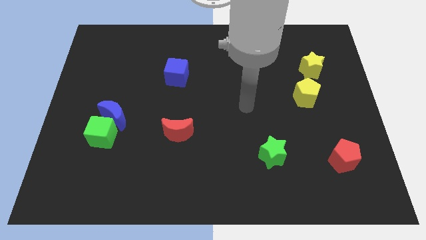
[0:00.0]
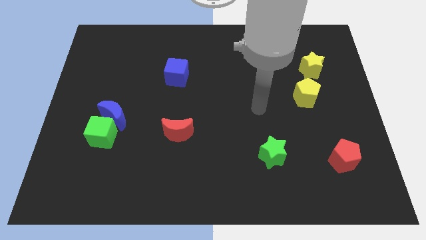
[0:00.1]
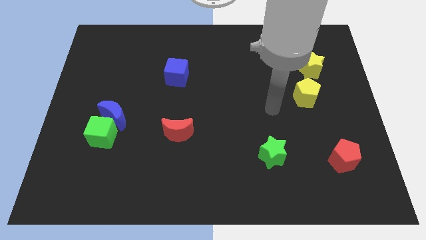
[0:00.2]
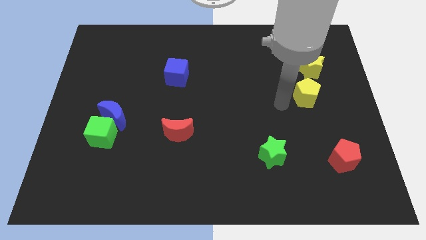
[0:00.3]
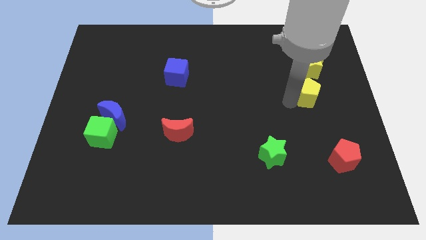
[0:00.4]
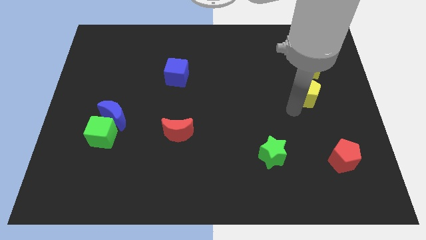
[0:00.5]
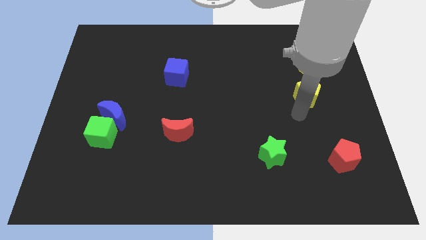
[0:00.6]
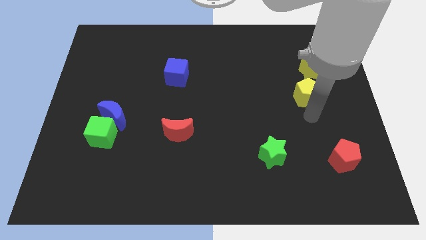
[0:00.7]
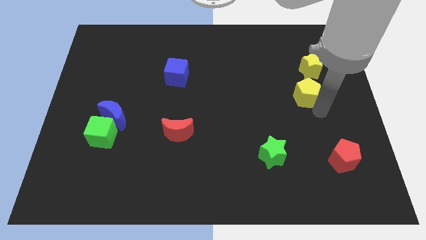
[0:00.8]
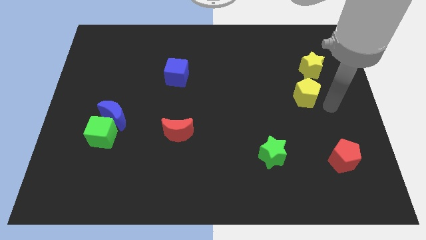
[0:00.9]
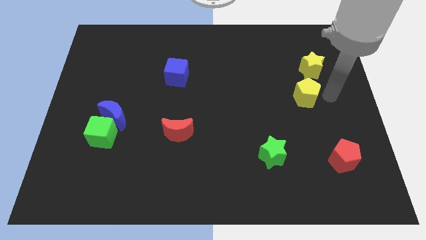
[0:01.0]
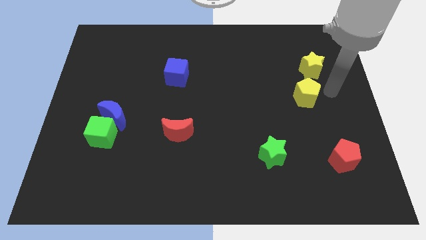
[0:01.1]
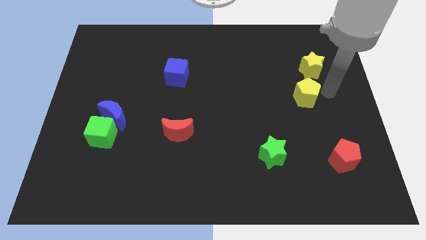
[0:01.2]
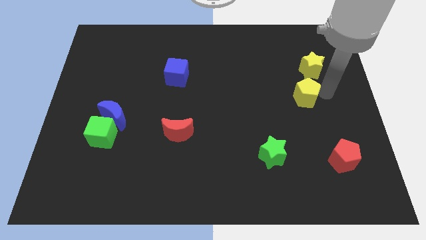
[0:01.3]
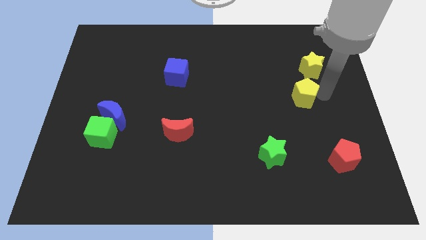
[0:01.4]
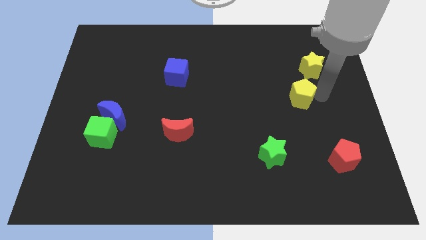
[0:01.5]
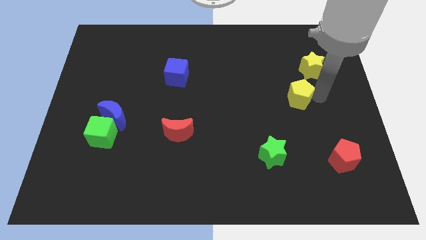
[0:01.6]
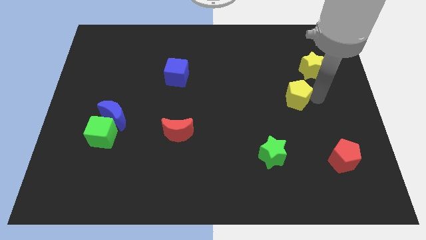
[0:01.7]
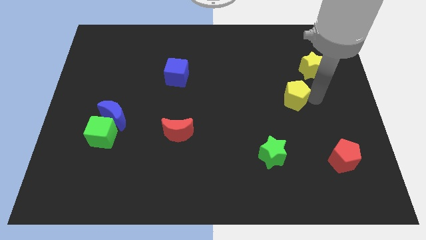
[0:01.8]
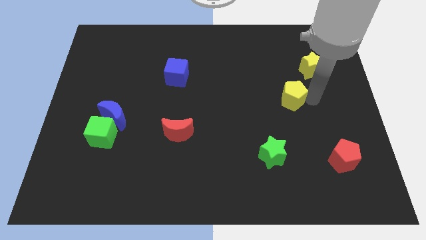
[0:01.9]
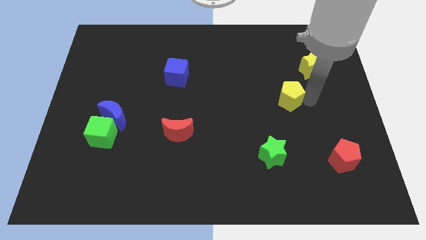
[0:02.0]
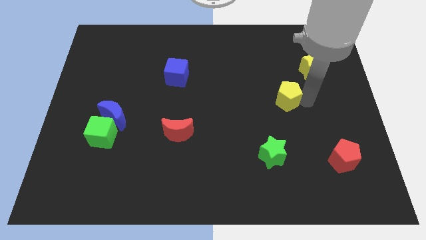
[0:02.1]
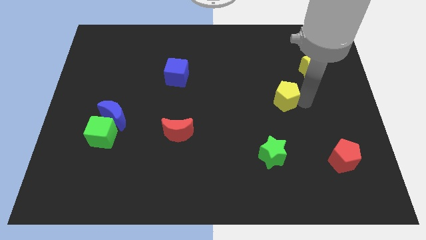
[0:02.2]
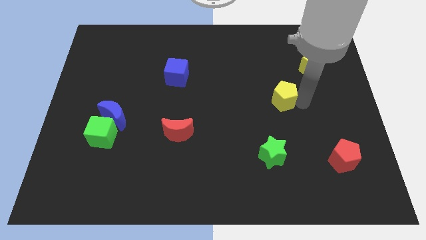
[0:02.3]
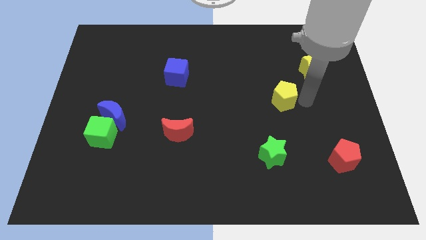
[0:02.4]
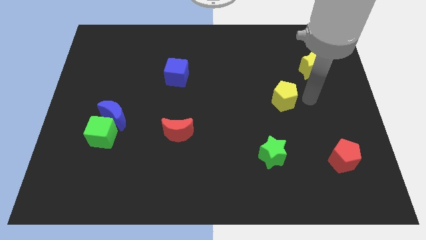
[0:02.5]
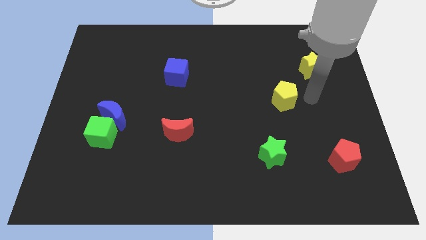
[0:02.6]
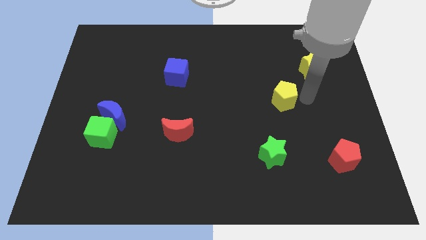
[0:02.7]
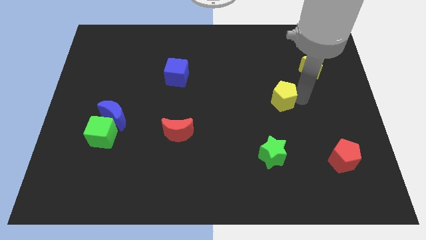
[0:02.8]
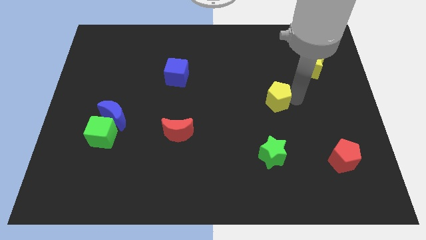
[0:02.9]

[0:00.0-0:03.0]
slightly slide the yellow pentagon to the left

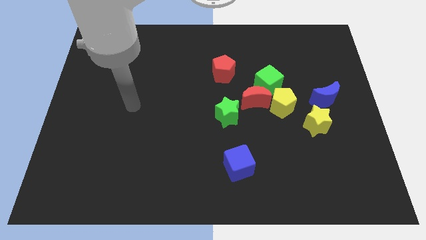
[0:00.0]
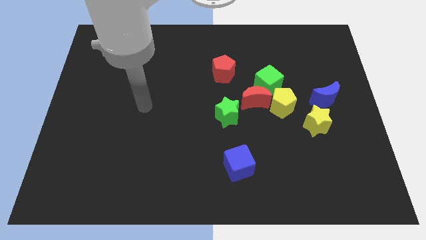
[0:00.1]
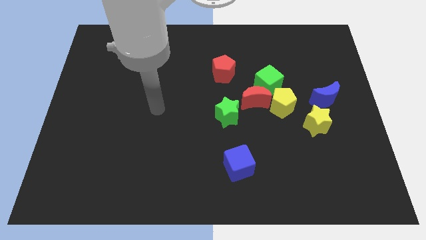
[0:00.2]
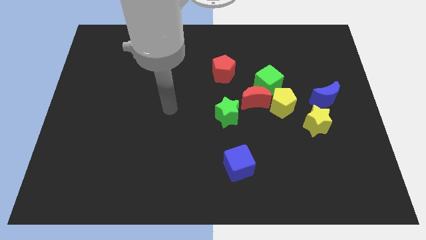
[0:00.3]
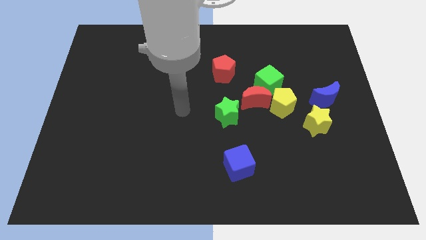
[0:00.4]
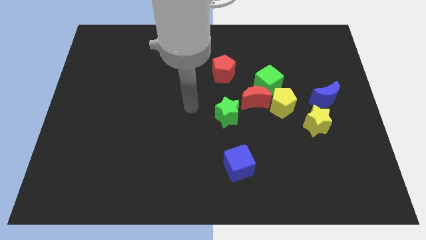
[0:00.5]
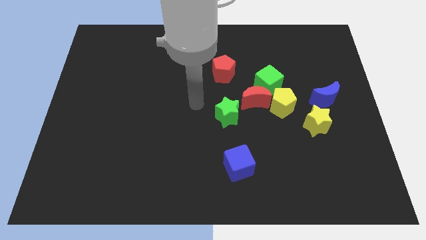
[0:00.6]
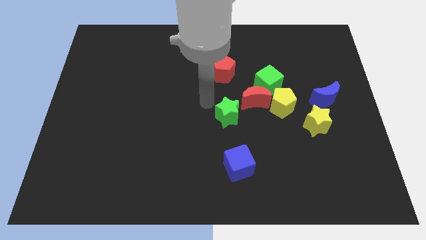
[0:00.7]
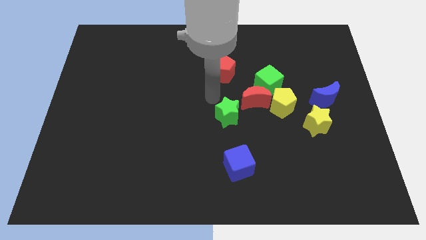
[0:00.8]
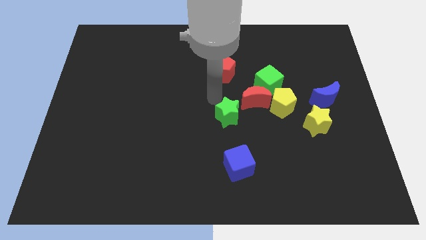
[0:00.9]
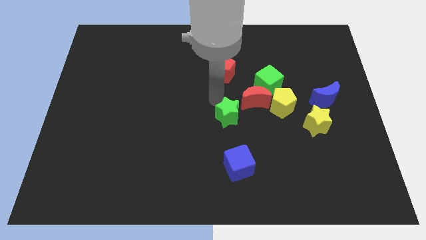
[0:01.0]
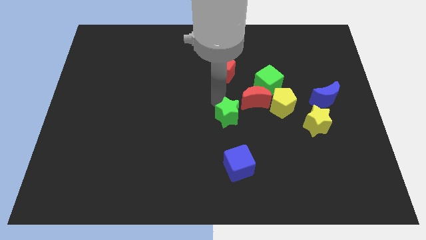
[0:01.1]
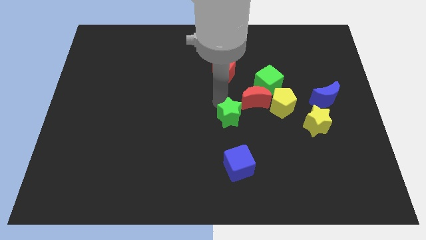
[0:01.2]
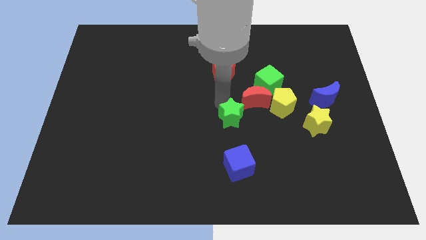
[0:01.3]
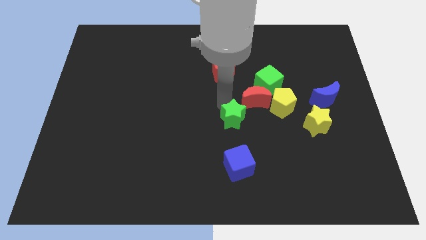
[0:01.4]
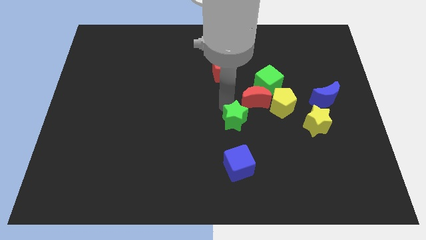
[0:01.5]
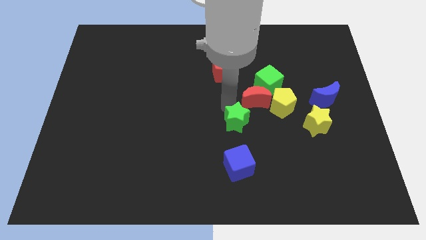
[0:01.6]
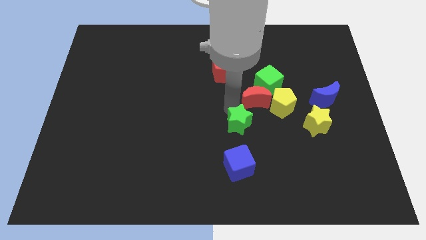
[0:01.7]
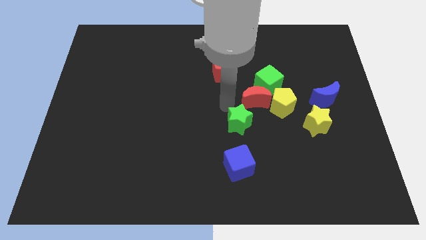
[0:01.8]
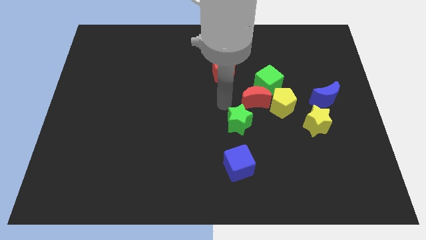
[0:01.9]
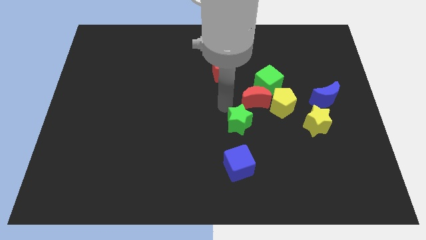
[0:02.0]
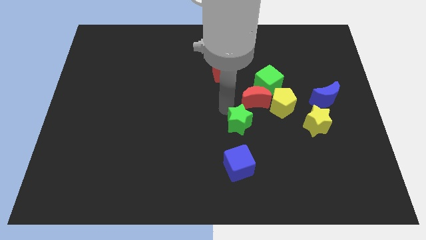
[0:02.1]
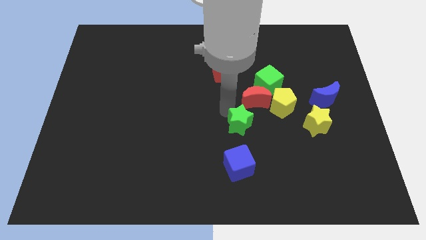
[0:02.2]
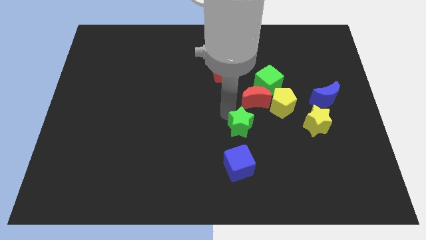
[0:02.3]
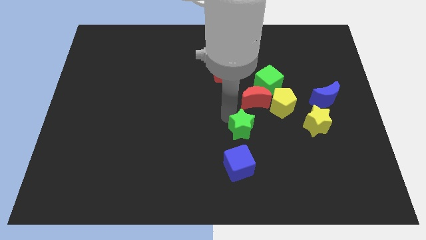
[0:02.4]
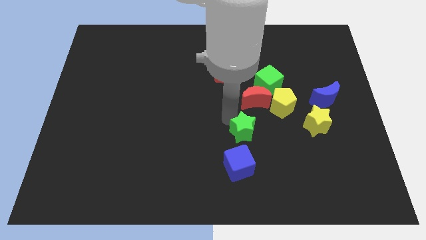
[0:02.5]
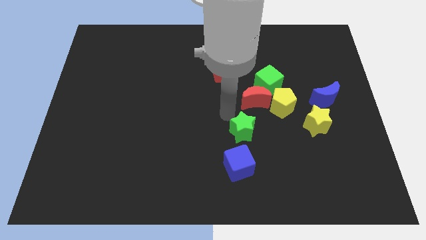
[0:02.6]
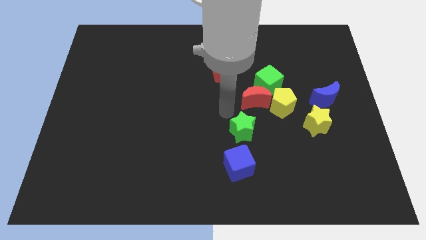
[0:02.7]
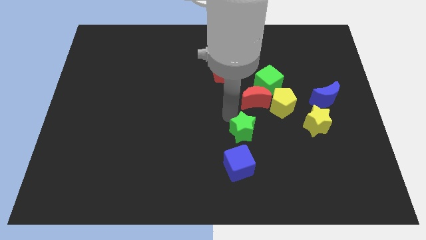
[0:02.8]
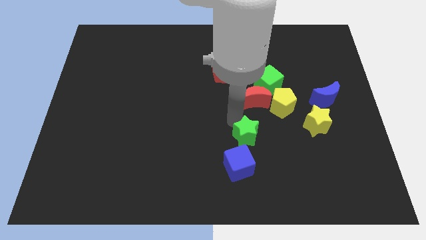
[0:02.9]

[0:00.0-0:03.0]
push the green star diagonally down and right a bit

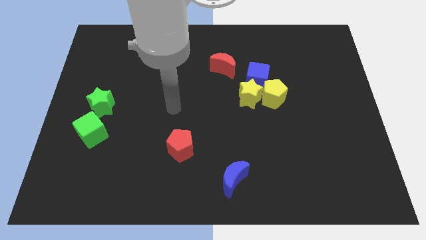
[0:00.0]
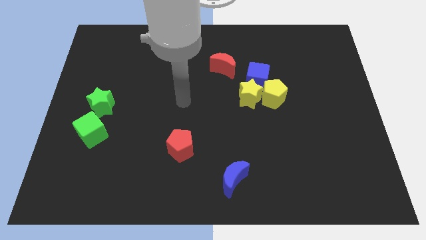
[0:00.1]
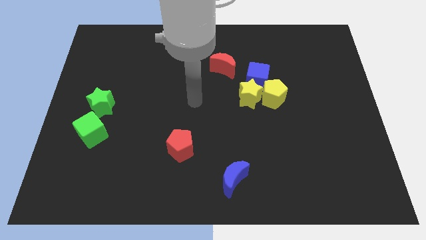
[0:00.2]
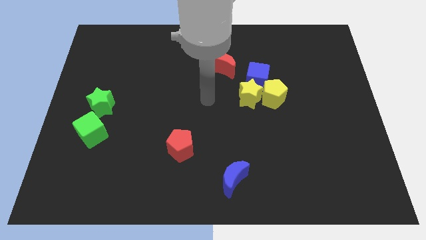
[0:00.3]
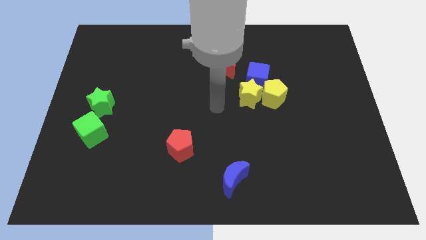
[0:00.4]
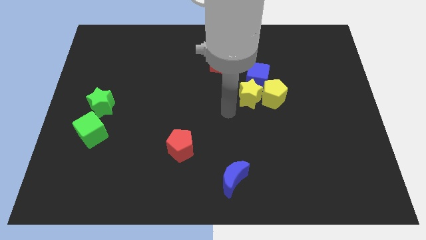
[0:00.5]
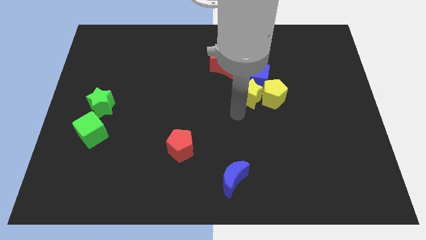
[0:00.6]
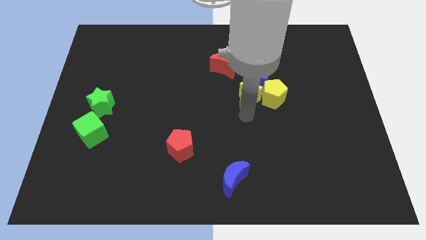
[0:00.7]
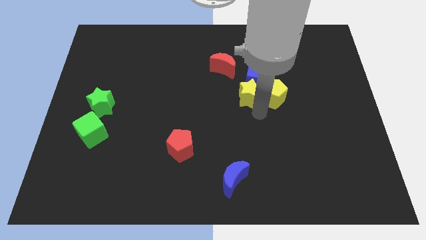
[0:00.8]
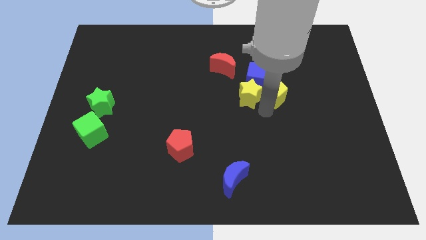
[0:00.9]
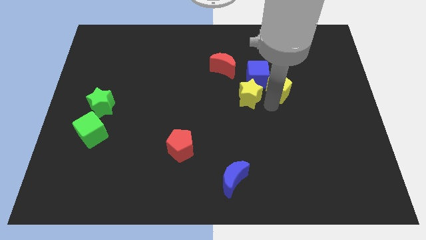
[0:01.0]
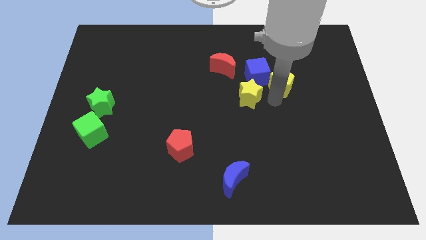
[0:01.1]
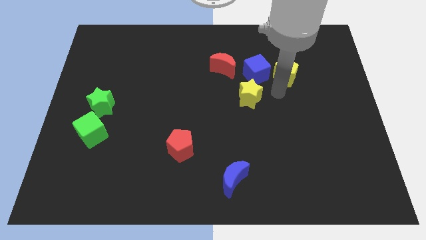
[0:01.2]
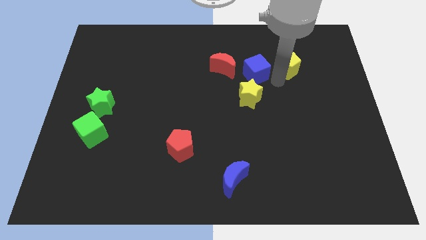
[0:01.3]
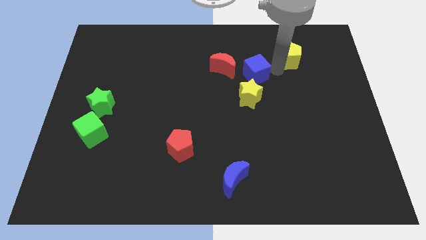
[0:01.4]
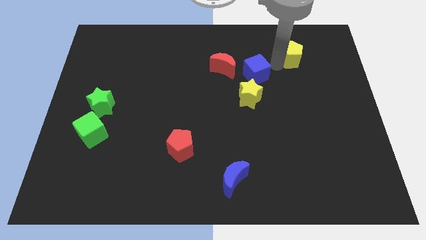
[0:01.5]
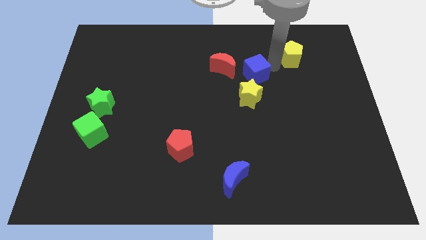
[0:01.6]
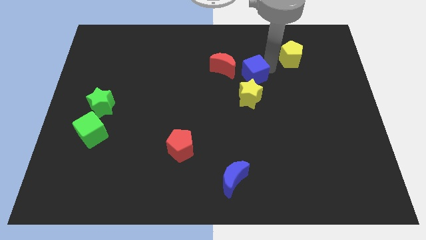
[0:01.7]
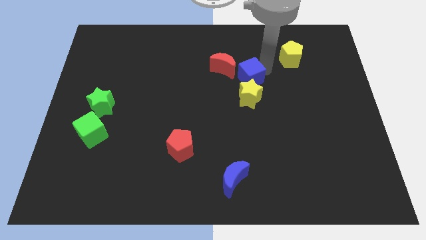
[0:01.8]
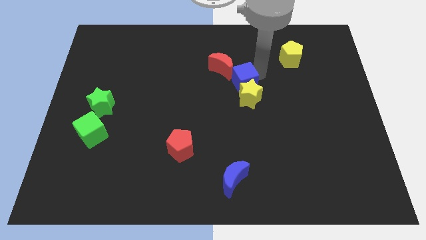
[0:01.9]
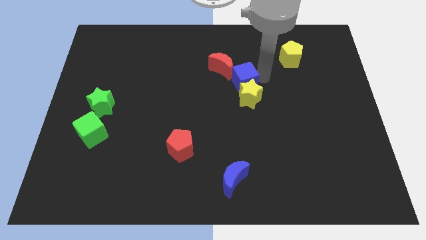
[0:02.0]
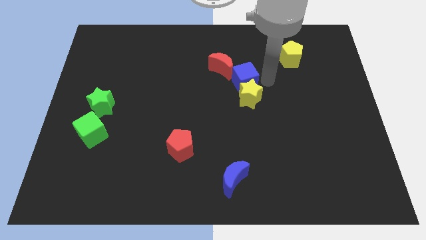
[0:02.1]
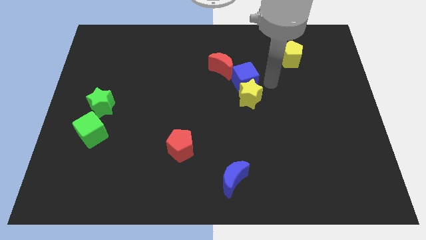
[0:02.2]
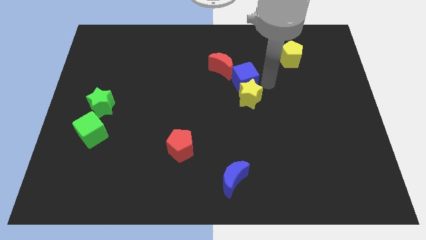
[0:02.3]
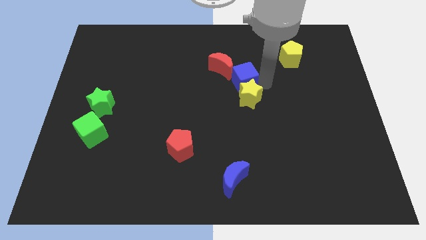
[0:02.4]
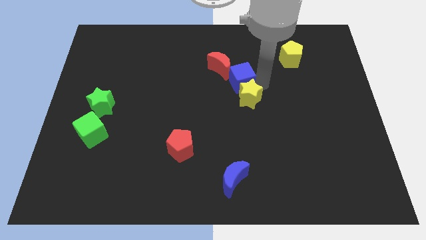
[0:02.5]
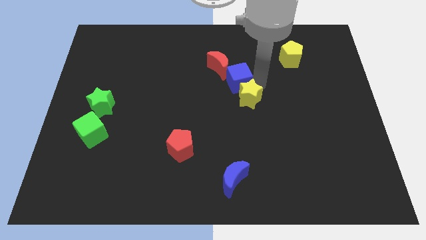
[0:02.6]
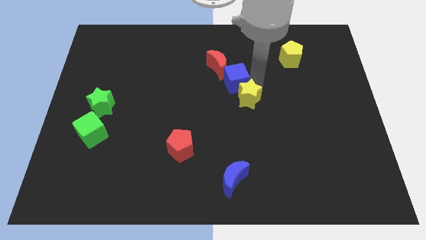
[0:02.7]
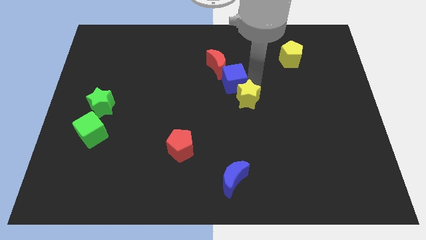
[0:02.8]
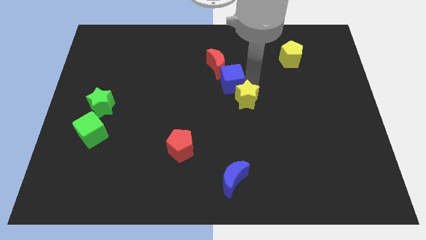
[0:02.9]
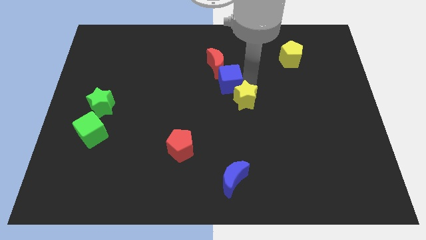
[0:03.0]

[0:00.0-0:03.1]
push the blue cube to the left a bit
